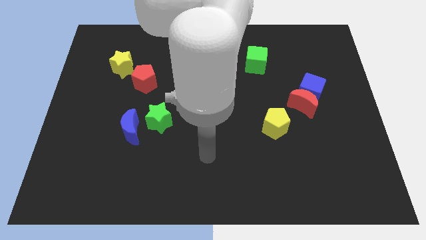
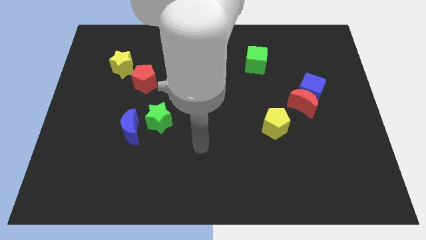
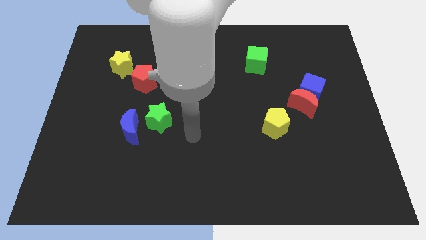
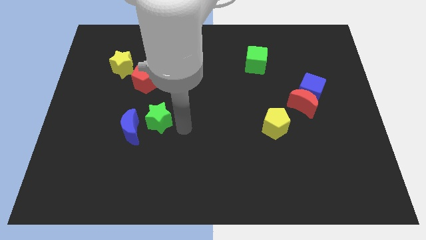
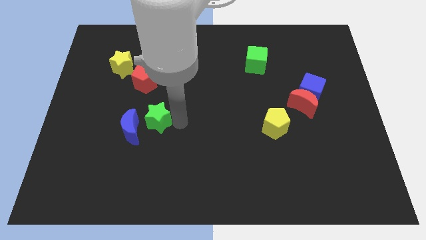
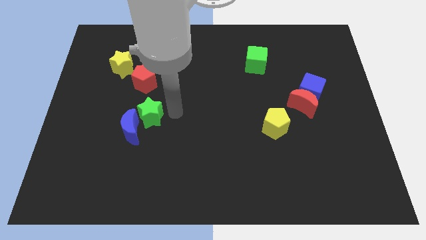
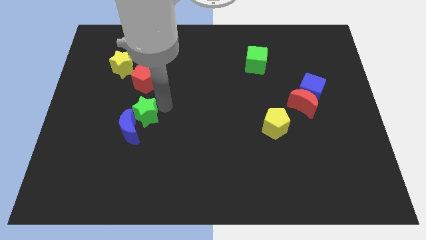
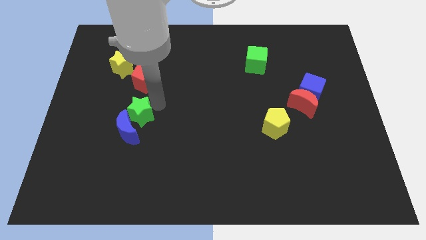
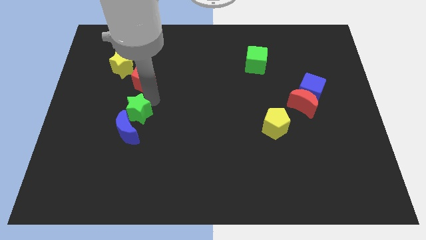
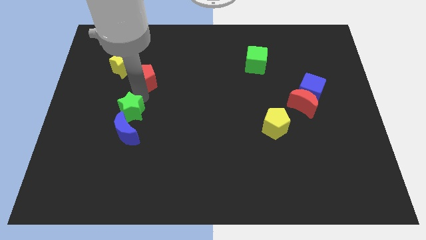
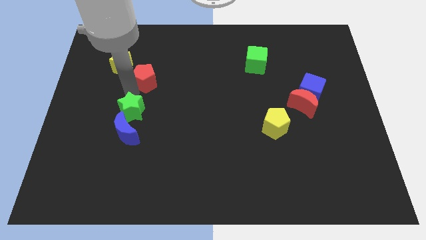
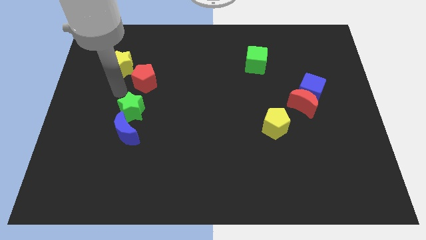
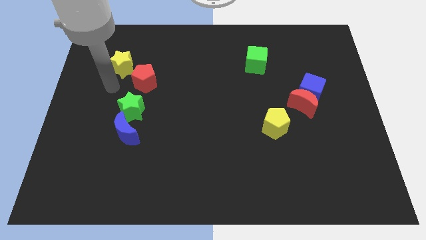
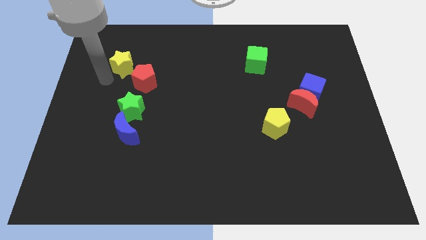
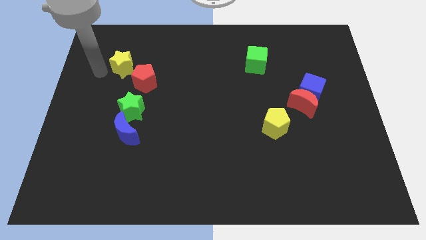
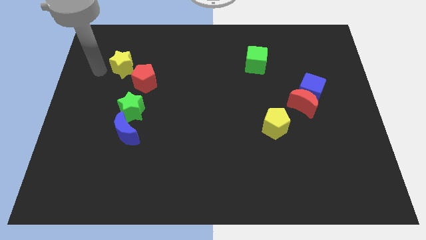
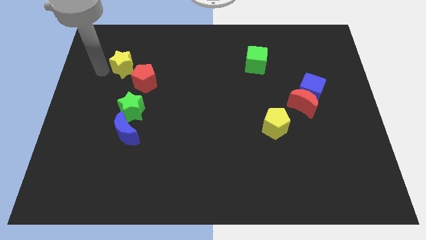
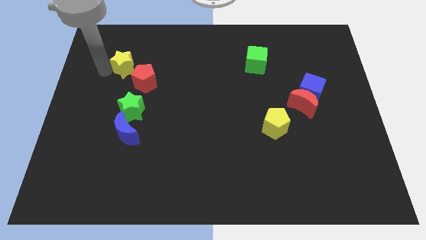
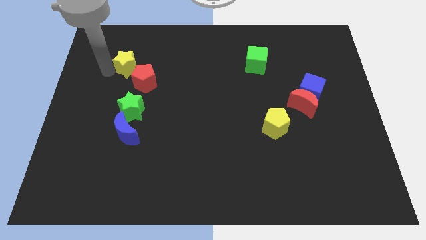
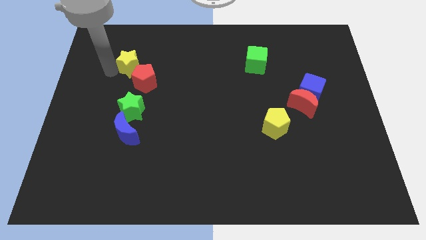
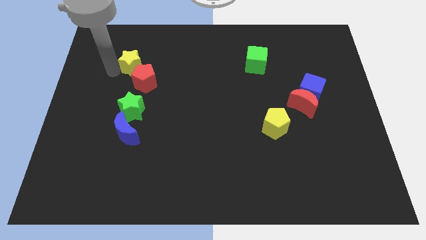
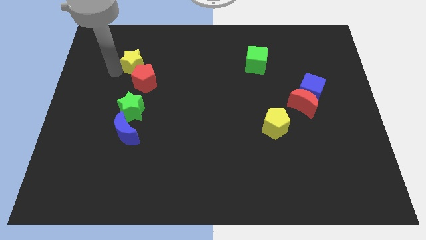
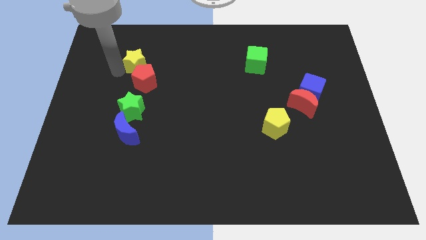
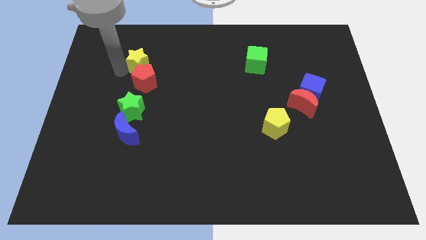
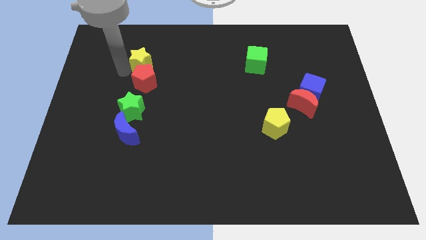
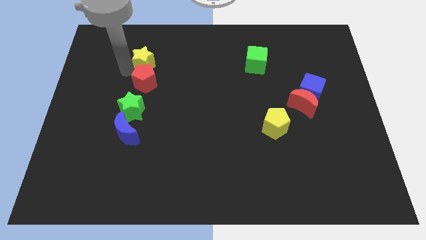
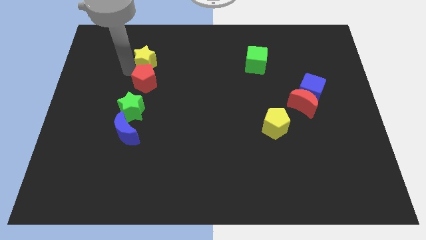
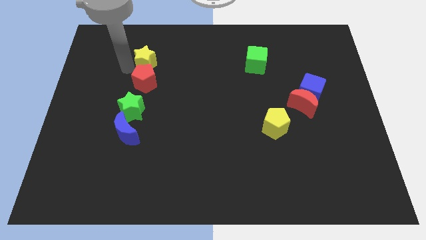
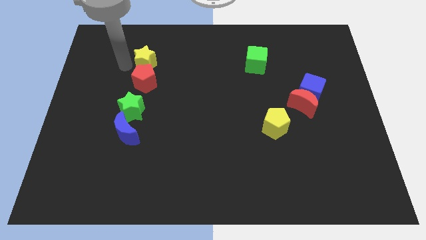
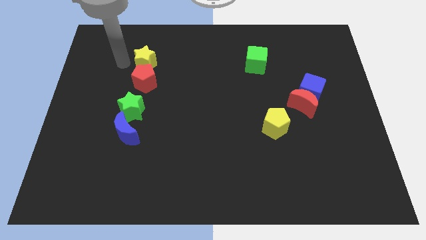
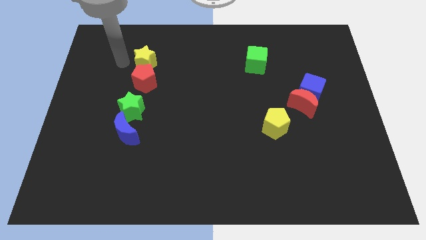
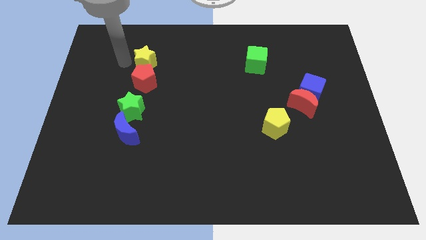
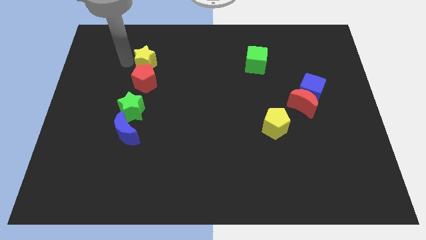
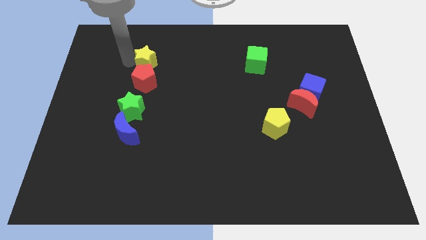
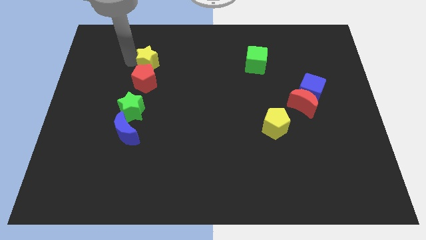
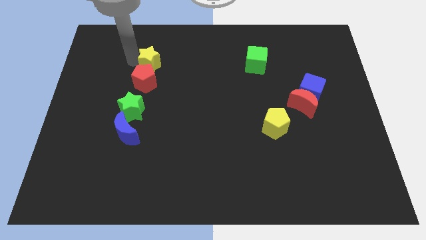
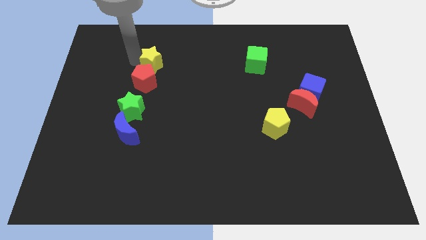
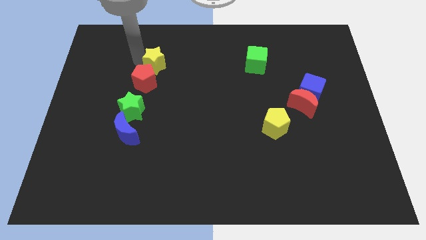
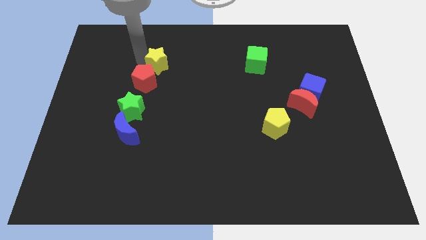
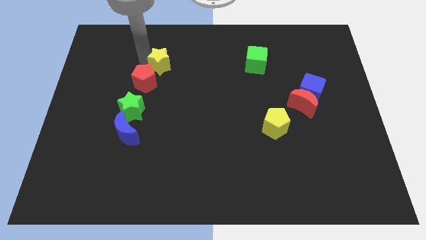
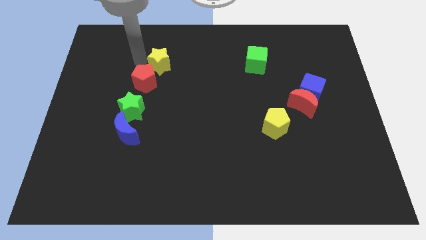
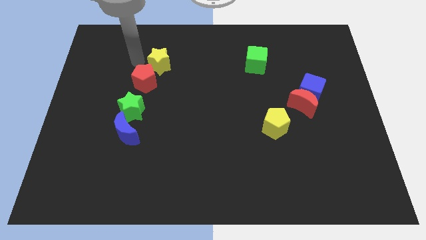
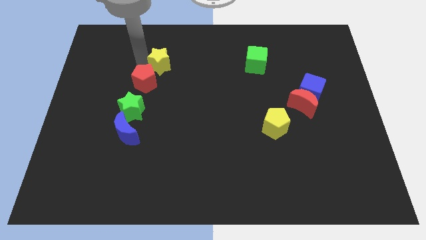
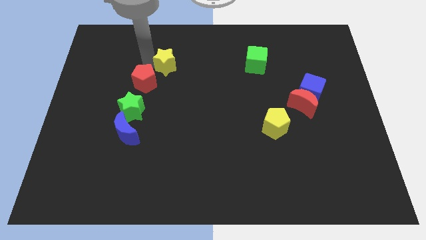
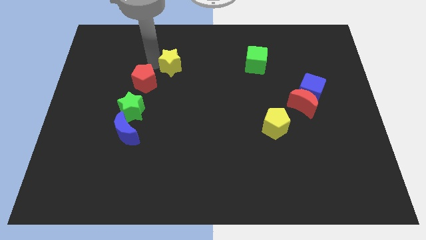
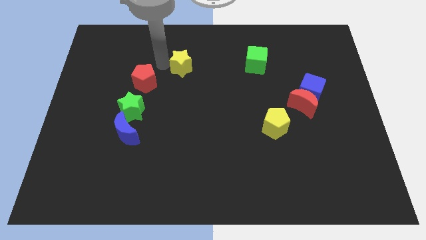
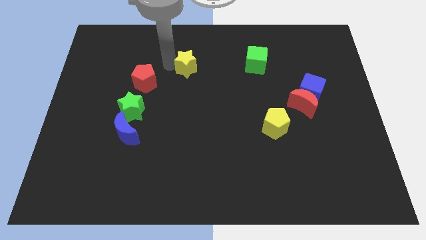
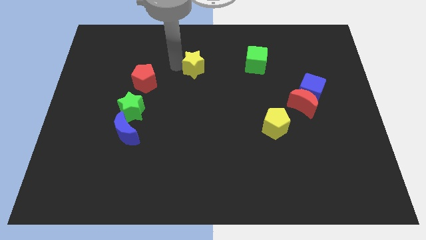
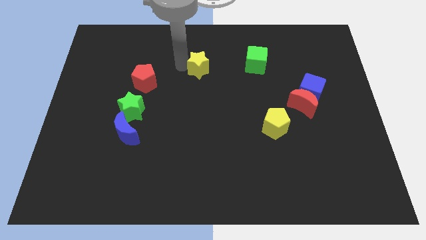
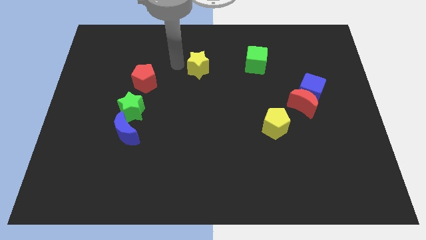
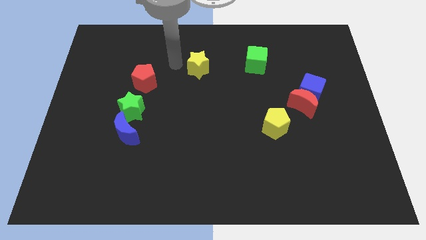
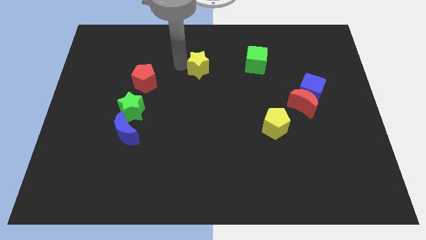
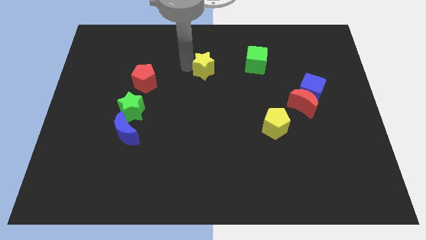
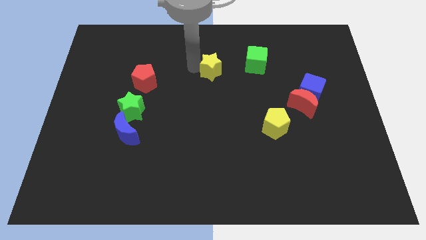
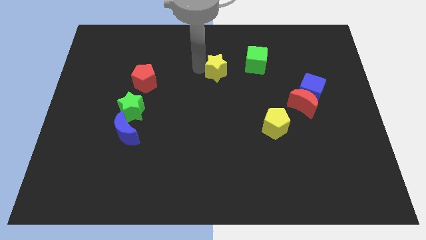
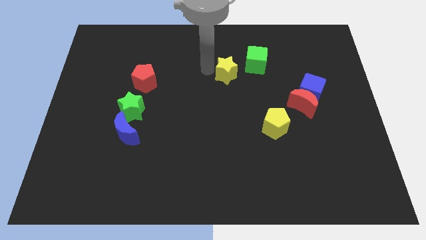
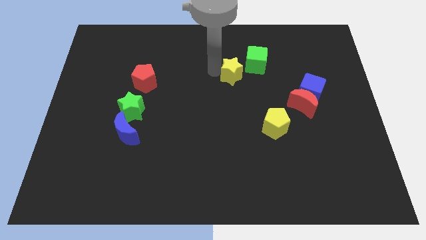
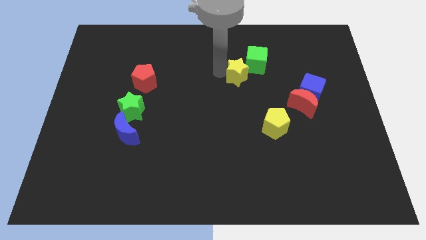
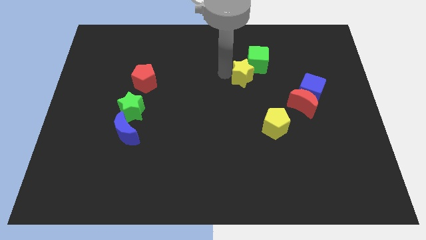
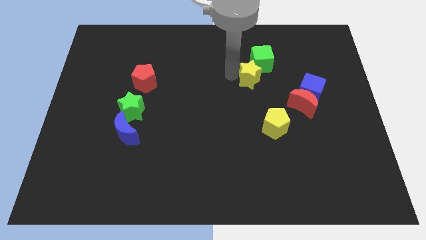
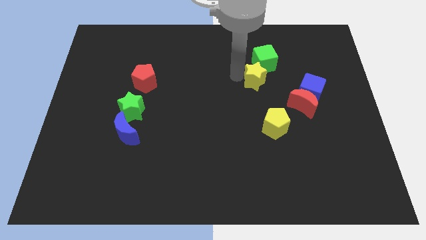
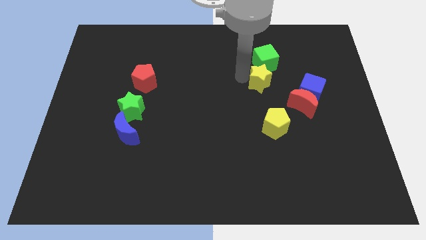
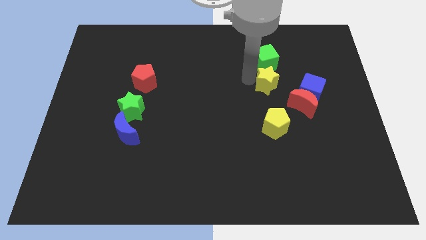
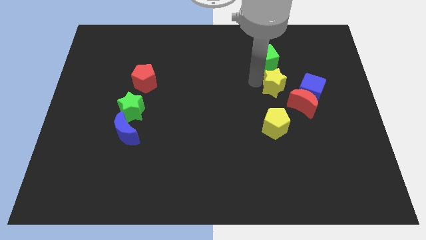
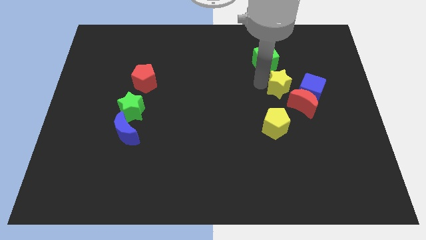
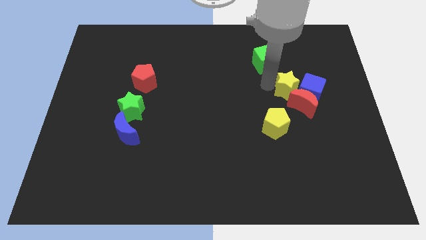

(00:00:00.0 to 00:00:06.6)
push the yellow star to the blue cube
